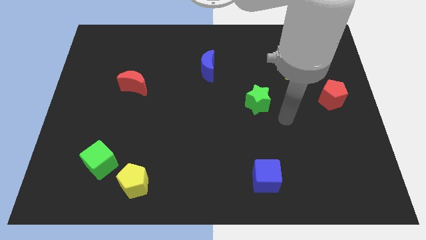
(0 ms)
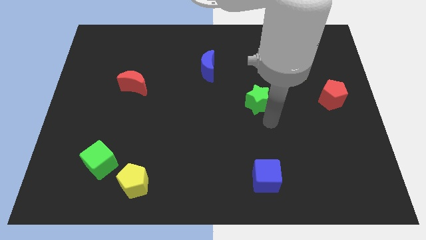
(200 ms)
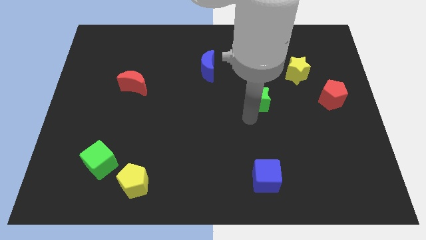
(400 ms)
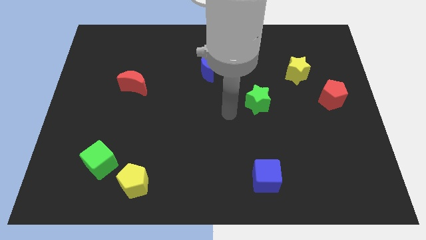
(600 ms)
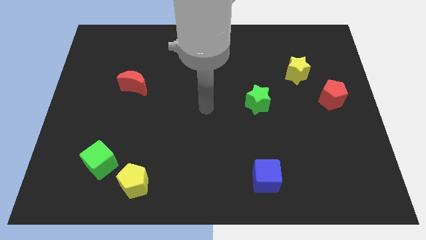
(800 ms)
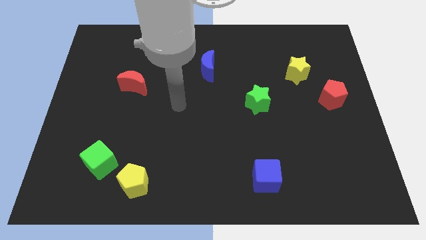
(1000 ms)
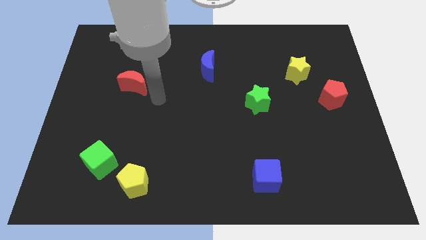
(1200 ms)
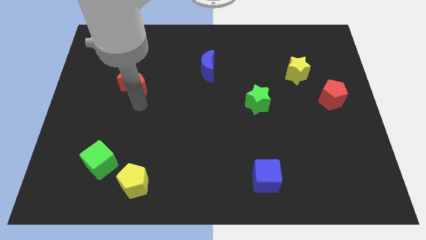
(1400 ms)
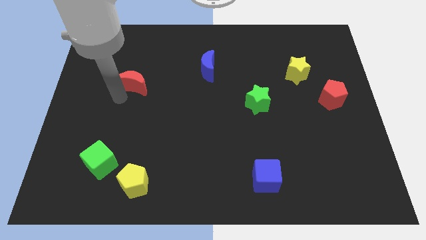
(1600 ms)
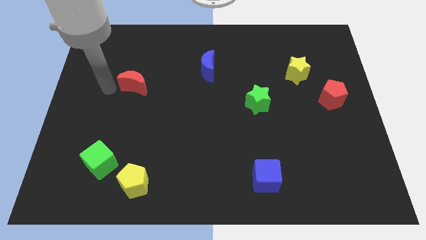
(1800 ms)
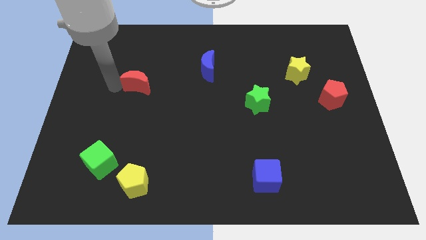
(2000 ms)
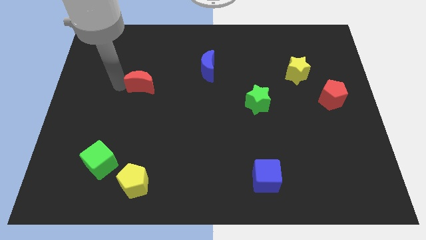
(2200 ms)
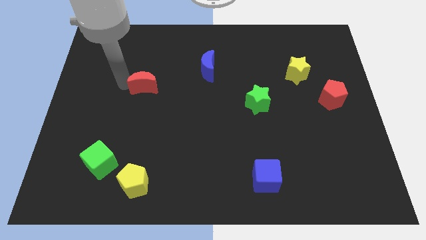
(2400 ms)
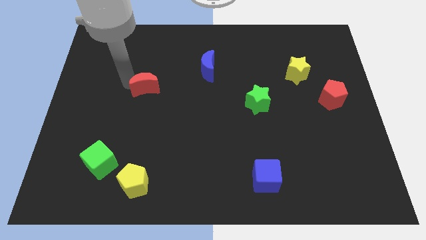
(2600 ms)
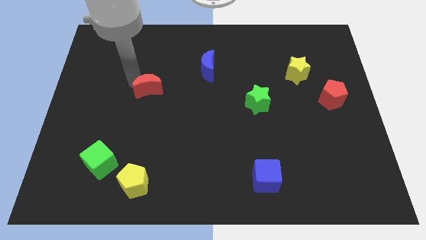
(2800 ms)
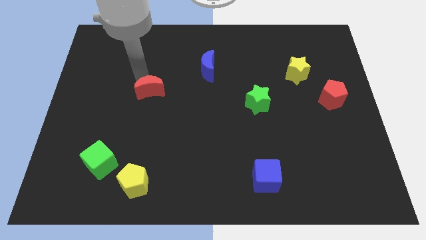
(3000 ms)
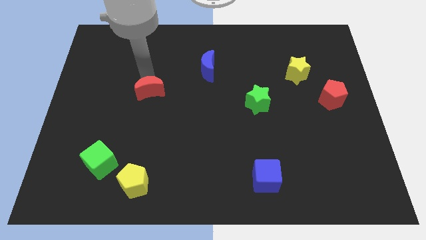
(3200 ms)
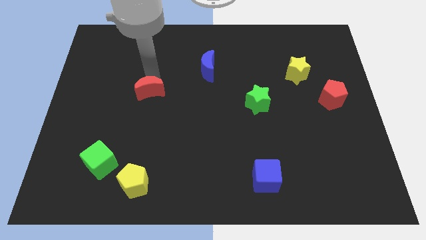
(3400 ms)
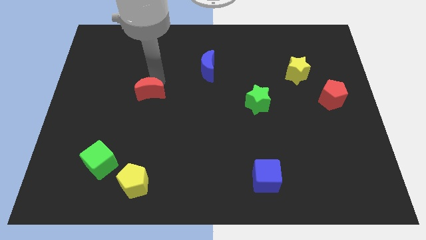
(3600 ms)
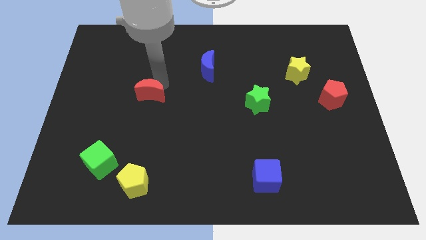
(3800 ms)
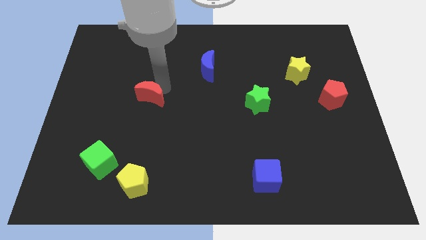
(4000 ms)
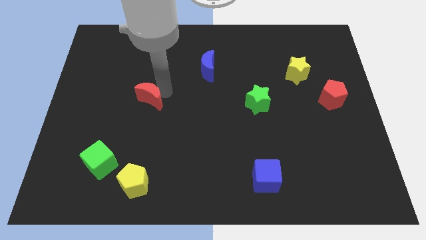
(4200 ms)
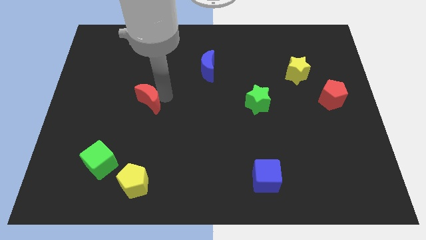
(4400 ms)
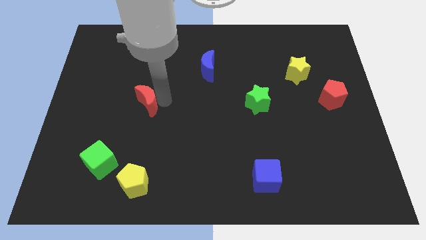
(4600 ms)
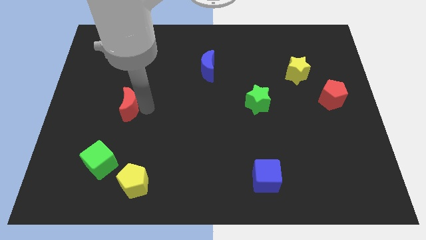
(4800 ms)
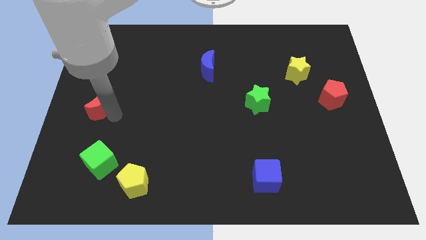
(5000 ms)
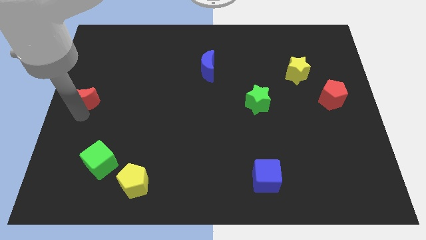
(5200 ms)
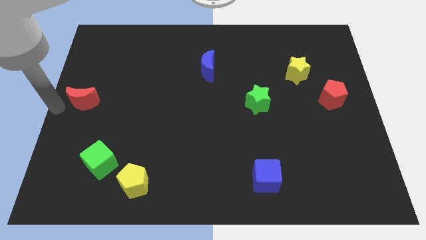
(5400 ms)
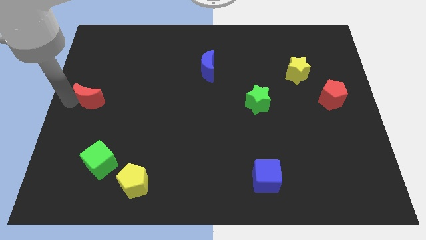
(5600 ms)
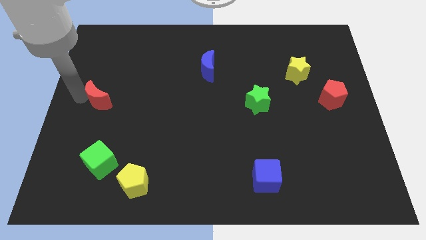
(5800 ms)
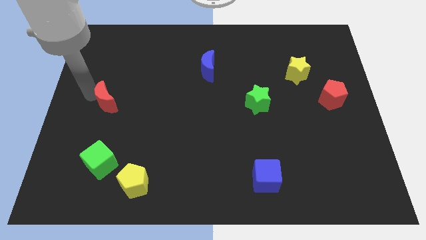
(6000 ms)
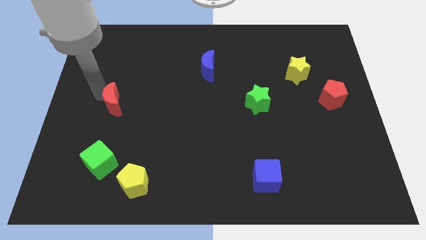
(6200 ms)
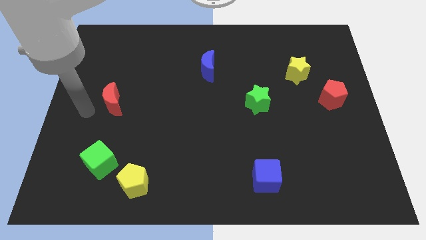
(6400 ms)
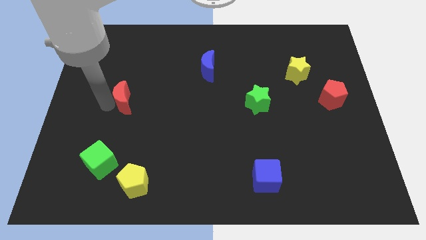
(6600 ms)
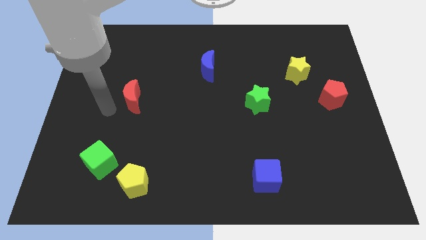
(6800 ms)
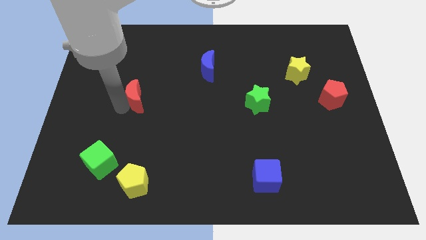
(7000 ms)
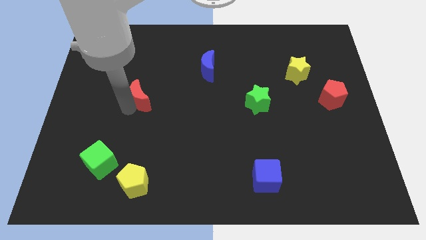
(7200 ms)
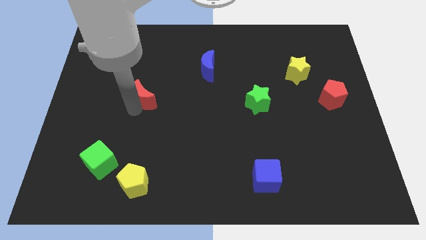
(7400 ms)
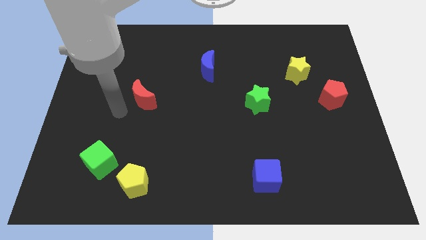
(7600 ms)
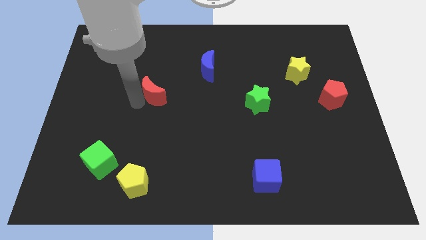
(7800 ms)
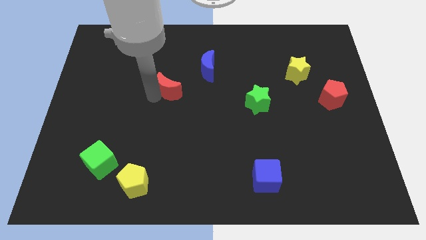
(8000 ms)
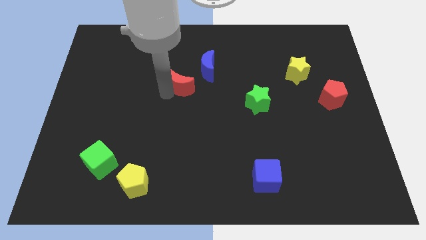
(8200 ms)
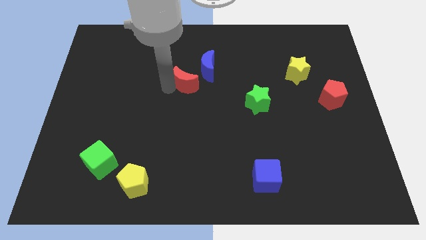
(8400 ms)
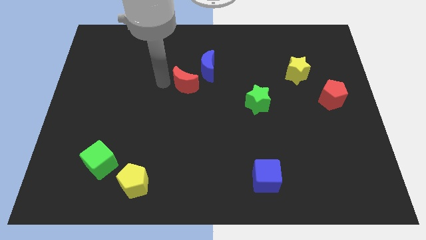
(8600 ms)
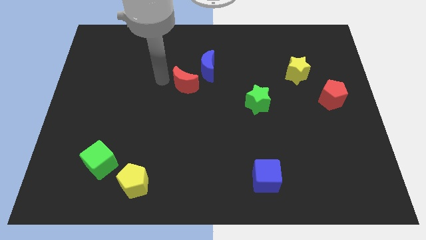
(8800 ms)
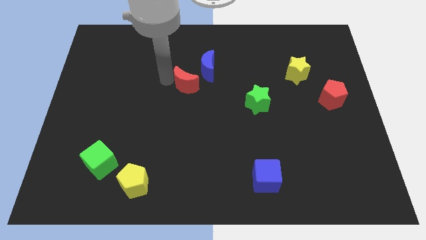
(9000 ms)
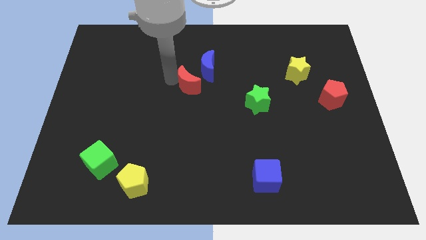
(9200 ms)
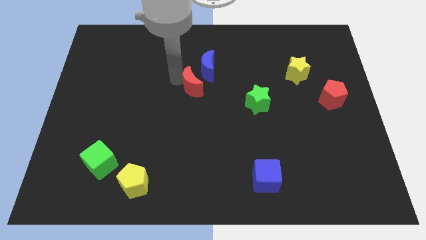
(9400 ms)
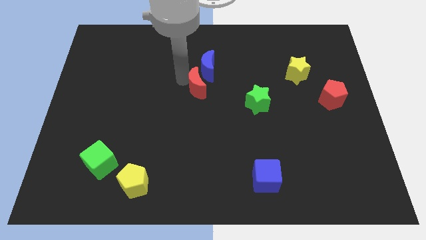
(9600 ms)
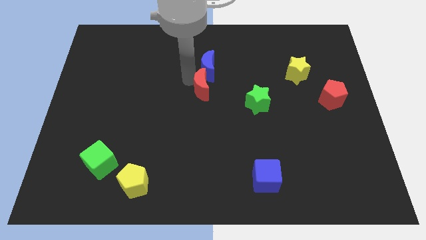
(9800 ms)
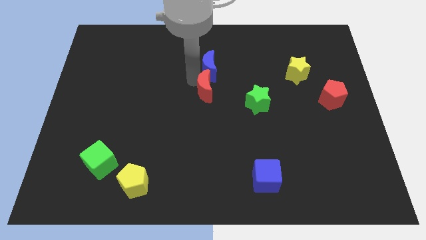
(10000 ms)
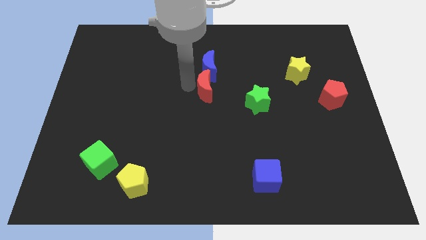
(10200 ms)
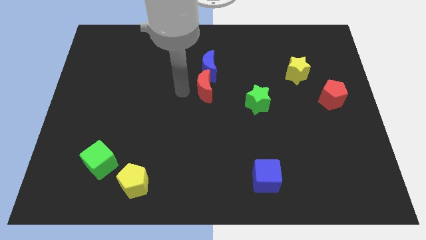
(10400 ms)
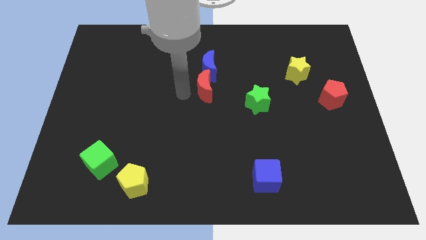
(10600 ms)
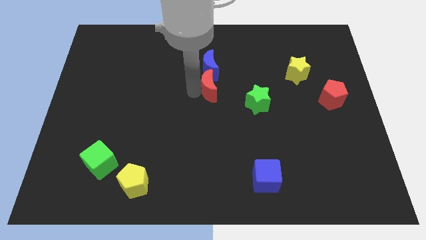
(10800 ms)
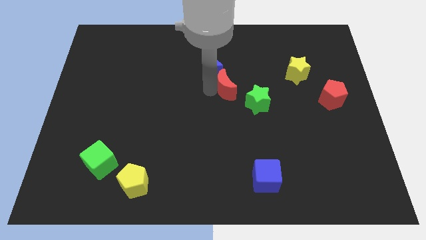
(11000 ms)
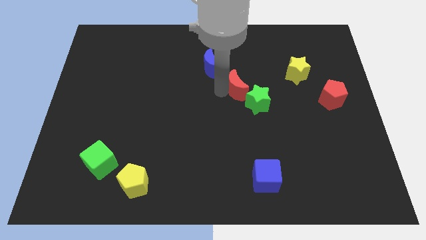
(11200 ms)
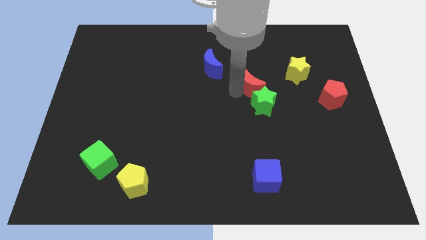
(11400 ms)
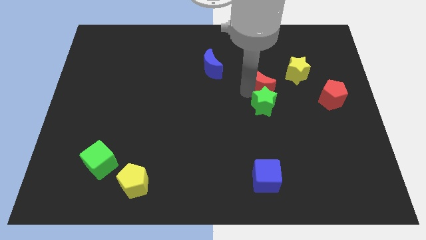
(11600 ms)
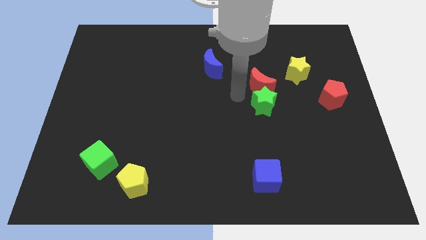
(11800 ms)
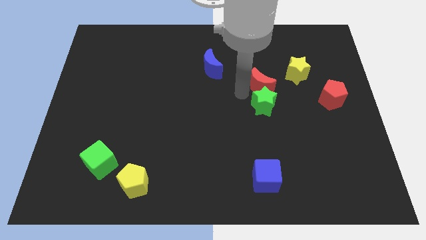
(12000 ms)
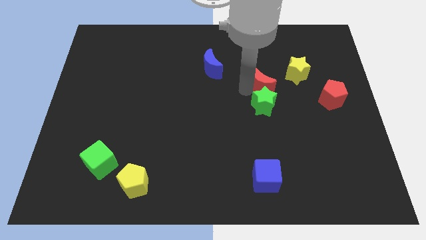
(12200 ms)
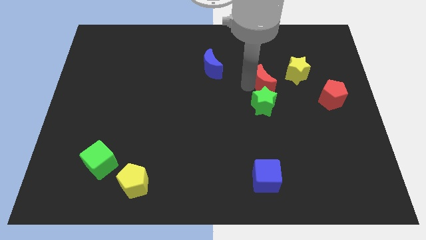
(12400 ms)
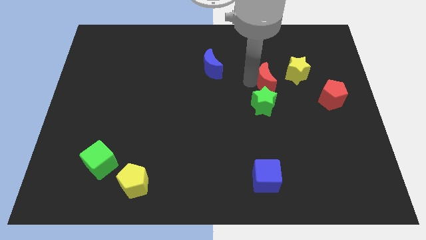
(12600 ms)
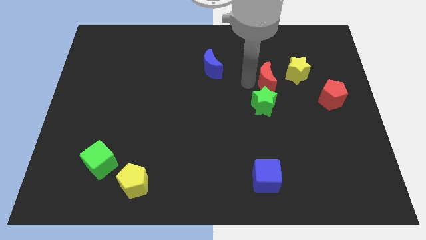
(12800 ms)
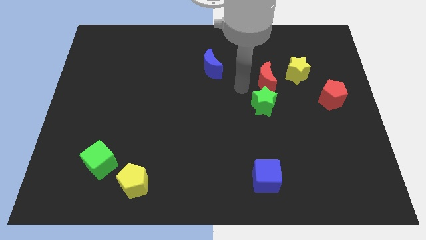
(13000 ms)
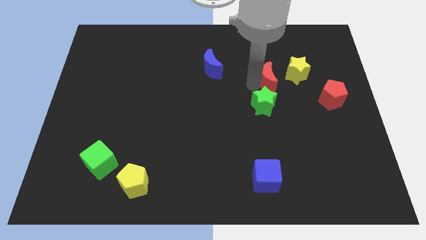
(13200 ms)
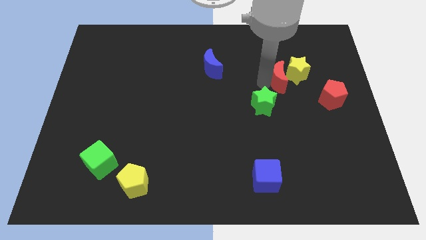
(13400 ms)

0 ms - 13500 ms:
move the red moon next to the yellow star

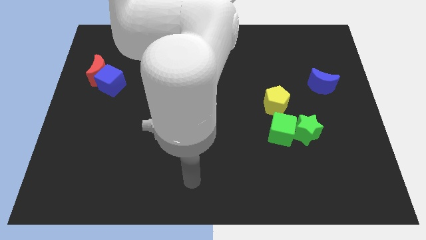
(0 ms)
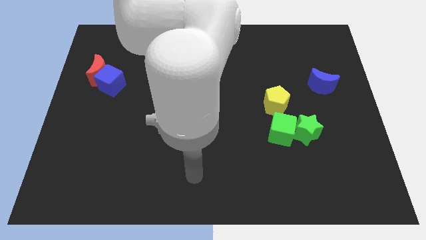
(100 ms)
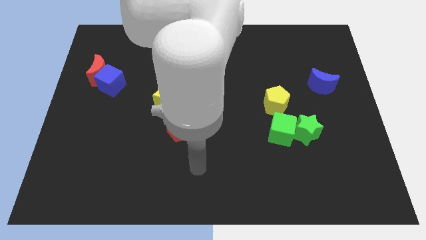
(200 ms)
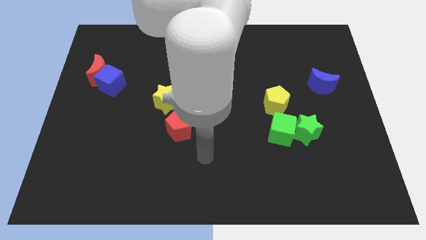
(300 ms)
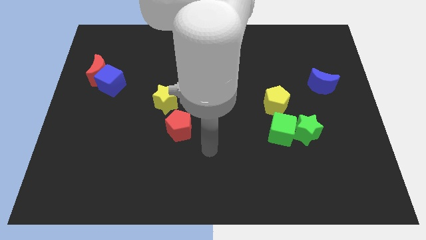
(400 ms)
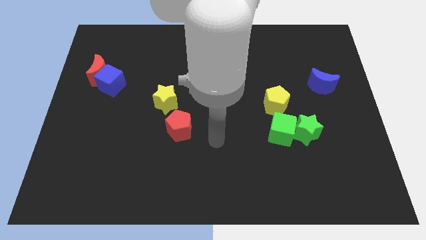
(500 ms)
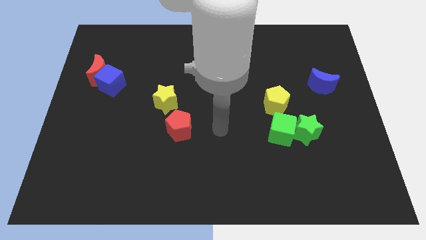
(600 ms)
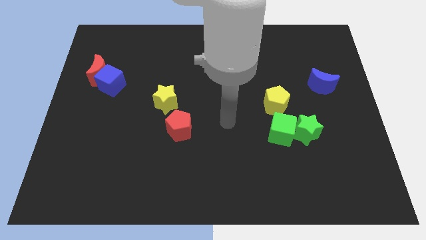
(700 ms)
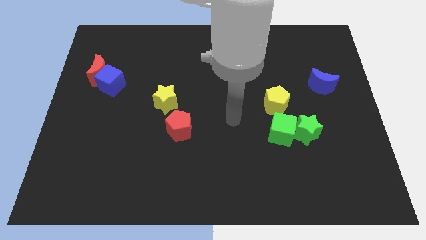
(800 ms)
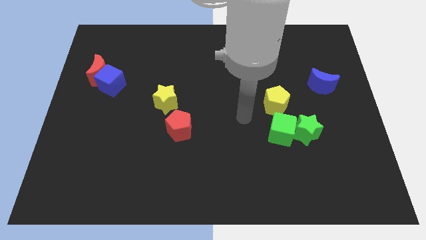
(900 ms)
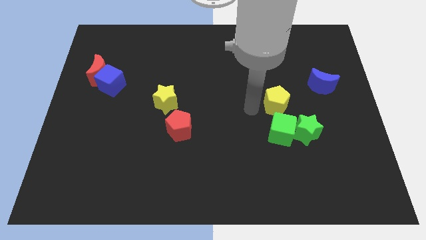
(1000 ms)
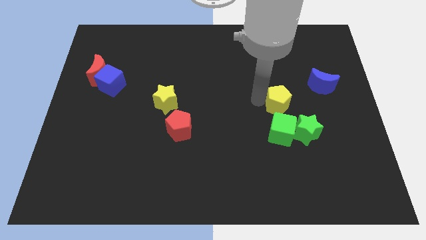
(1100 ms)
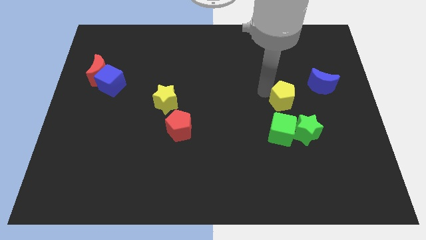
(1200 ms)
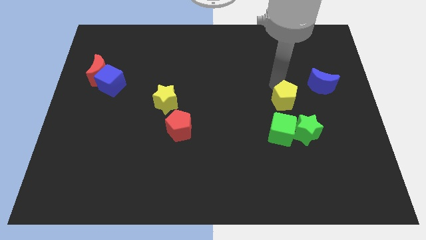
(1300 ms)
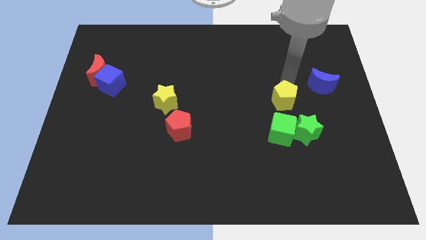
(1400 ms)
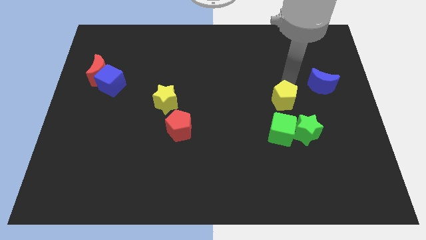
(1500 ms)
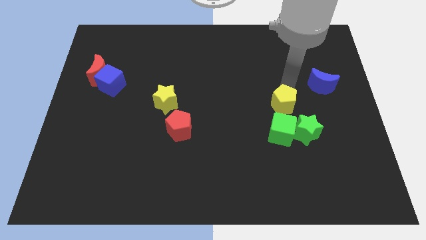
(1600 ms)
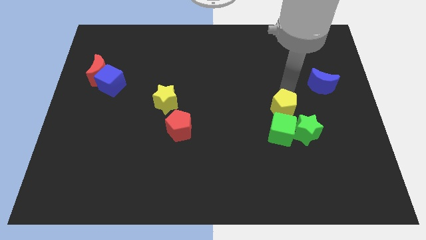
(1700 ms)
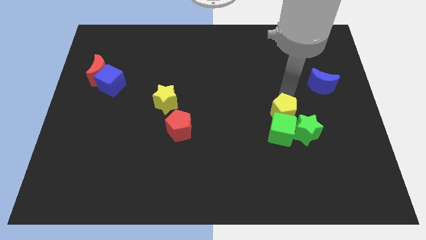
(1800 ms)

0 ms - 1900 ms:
push the yellow pentagon to the green cube
